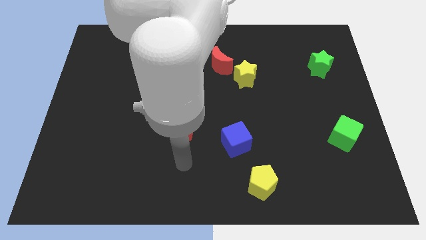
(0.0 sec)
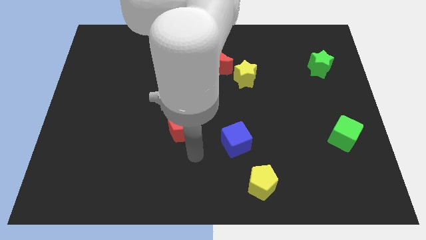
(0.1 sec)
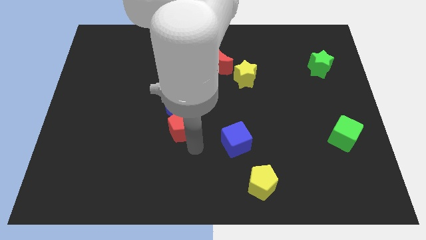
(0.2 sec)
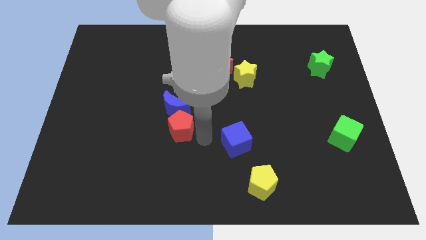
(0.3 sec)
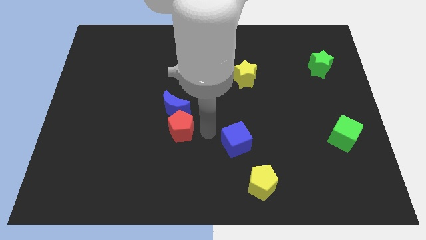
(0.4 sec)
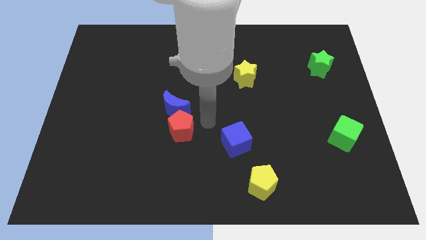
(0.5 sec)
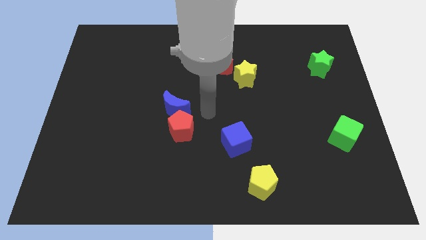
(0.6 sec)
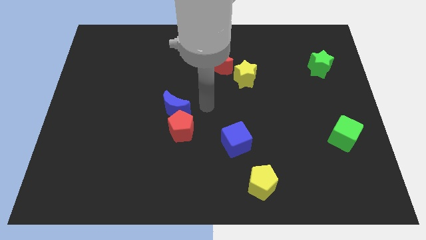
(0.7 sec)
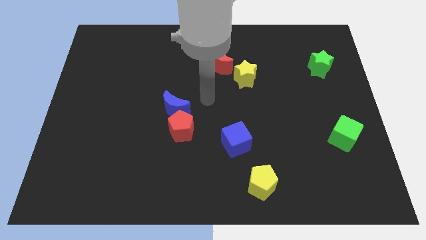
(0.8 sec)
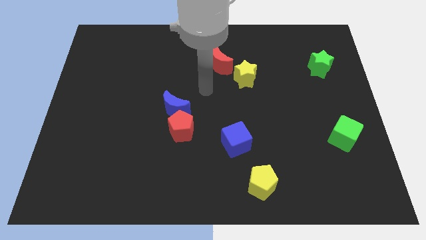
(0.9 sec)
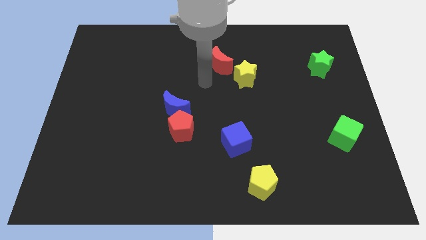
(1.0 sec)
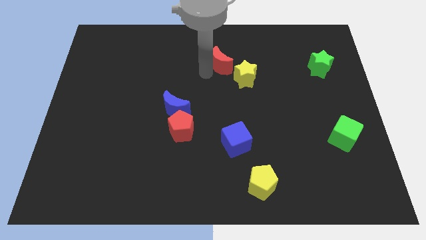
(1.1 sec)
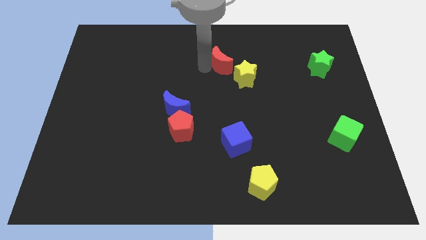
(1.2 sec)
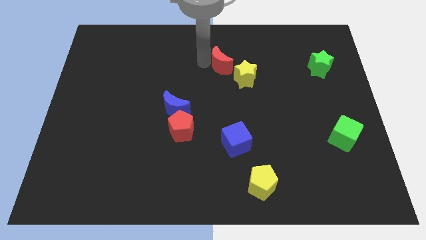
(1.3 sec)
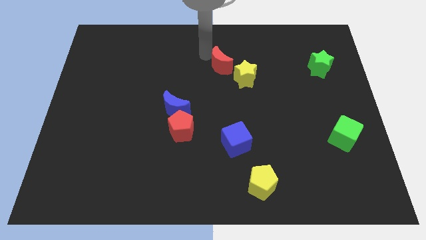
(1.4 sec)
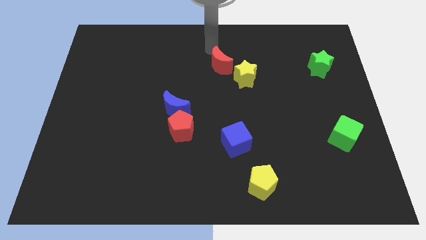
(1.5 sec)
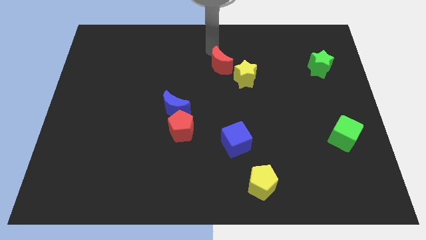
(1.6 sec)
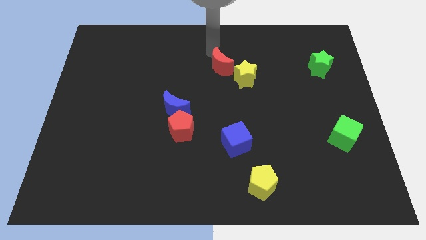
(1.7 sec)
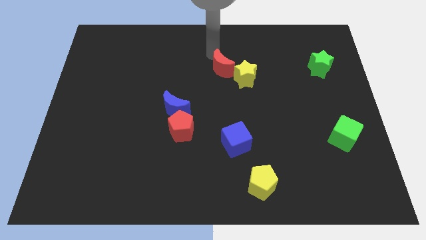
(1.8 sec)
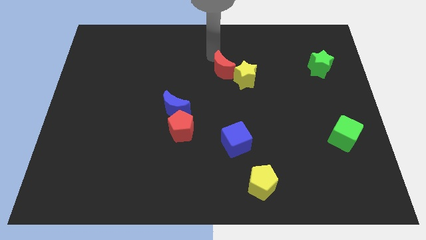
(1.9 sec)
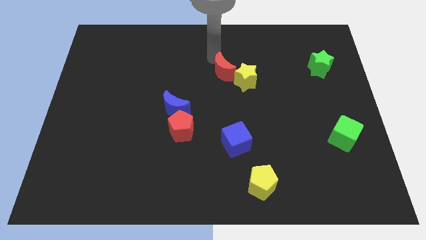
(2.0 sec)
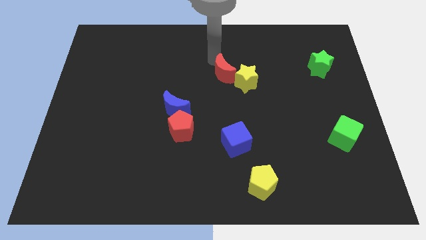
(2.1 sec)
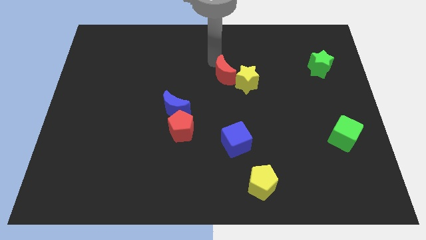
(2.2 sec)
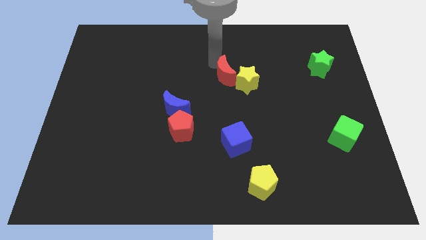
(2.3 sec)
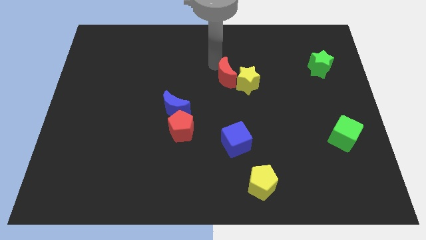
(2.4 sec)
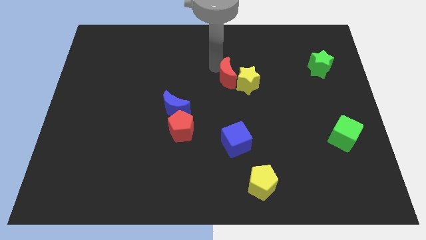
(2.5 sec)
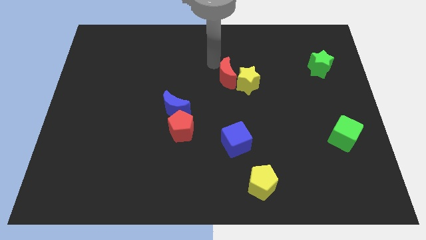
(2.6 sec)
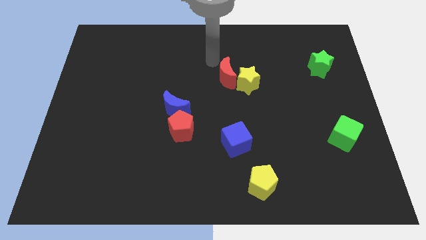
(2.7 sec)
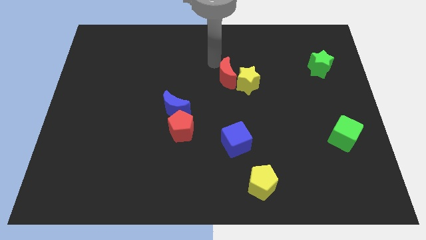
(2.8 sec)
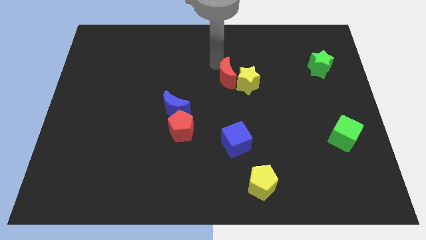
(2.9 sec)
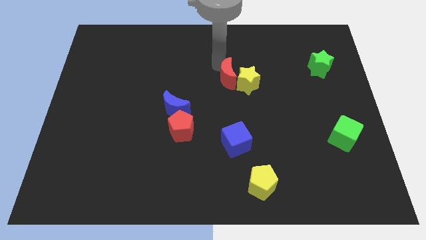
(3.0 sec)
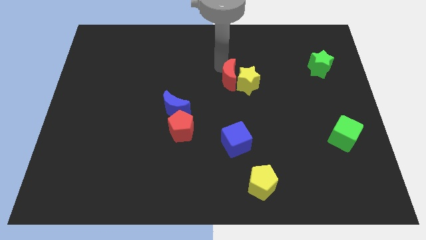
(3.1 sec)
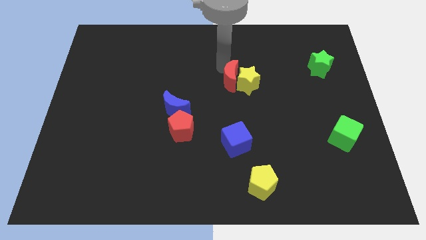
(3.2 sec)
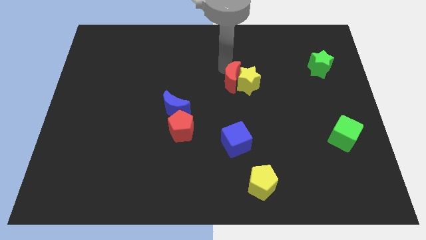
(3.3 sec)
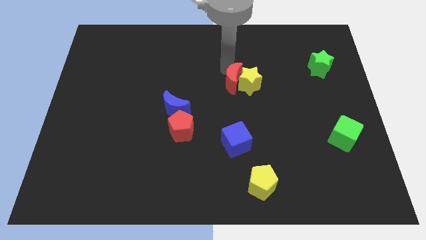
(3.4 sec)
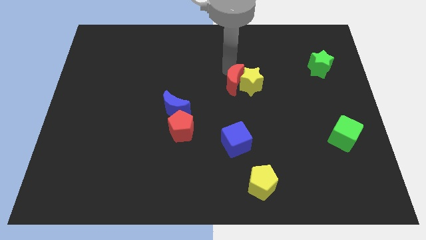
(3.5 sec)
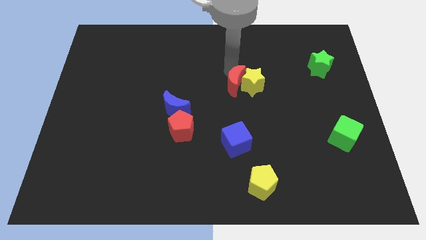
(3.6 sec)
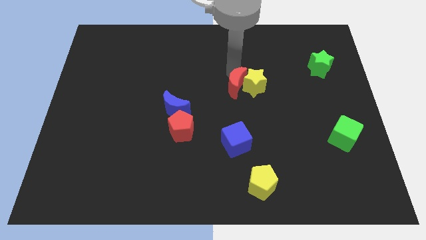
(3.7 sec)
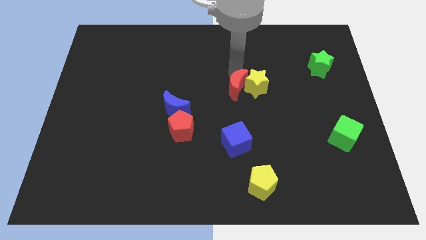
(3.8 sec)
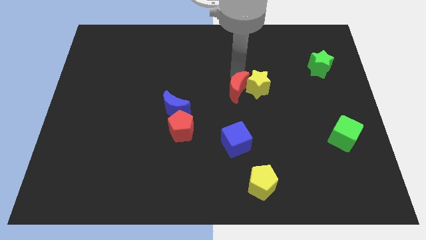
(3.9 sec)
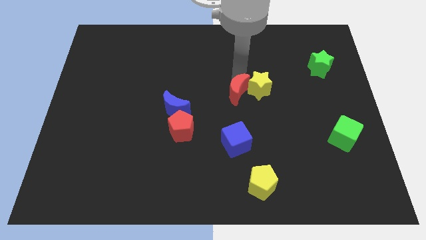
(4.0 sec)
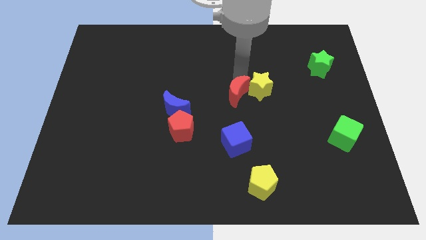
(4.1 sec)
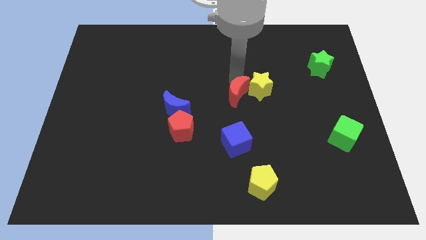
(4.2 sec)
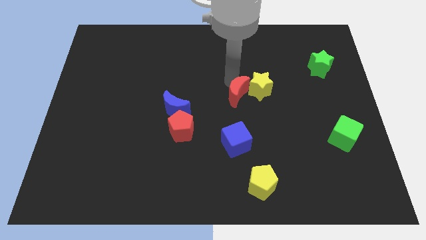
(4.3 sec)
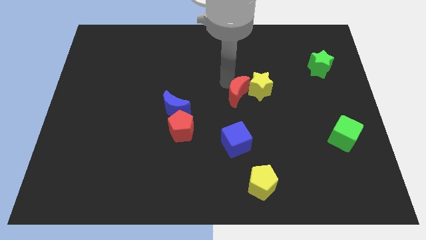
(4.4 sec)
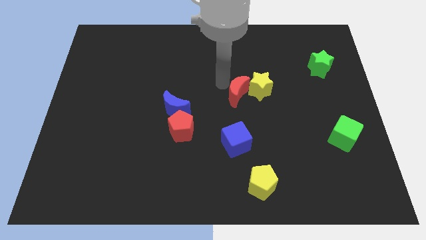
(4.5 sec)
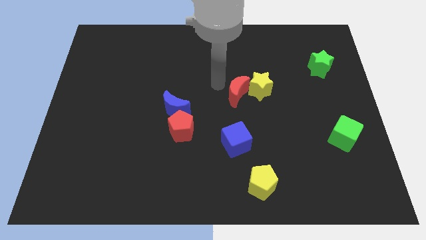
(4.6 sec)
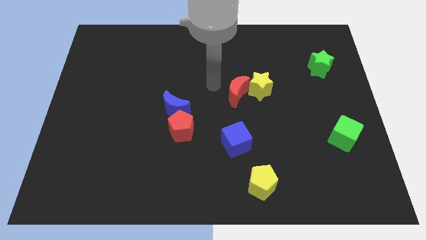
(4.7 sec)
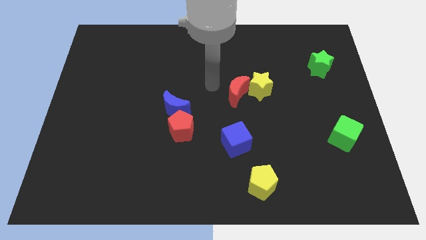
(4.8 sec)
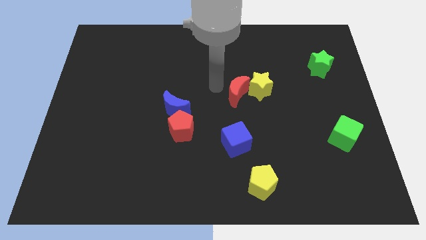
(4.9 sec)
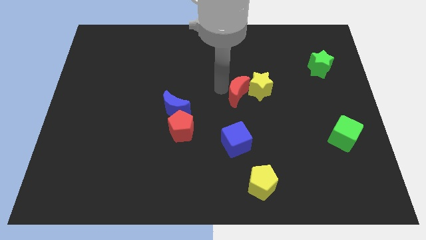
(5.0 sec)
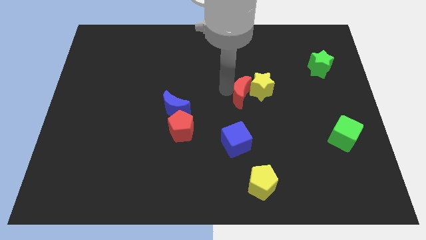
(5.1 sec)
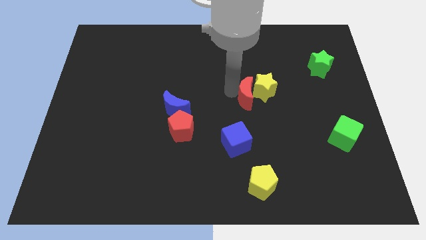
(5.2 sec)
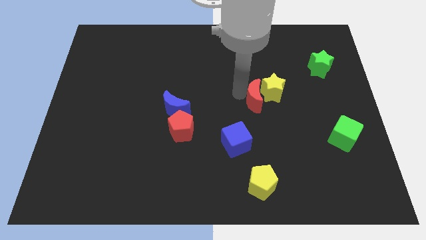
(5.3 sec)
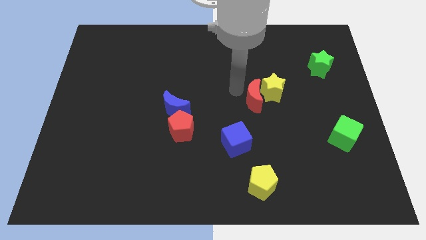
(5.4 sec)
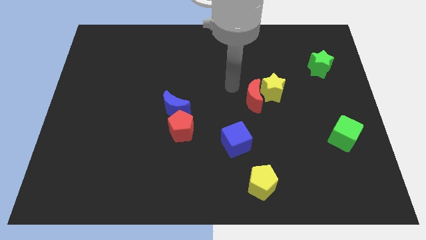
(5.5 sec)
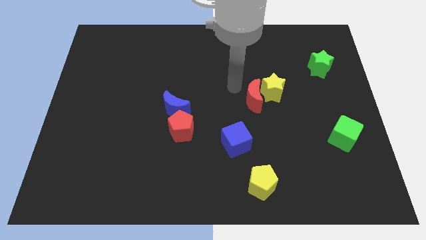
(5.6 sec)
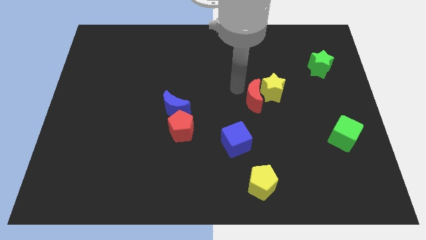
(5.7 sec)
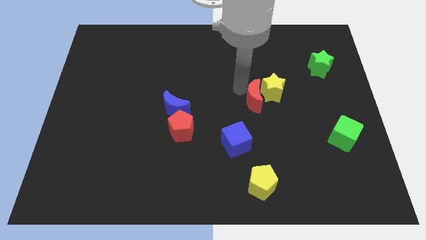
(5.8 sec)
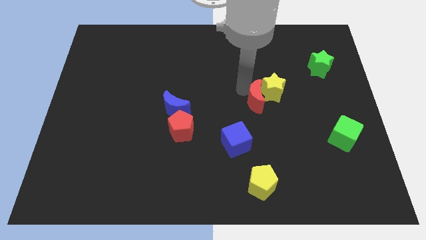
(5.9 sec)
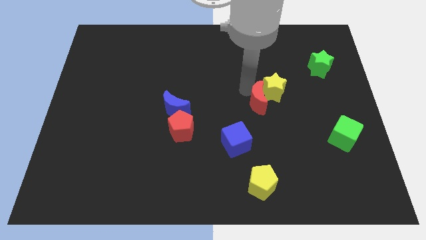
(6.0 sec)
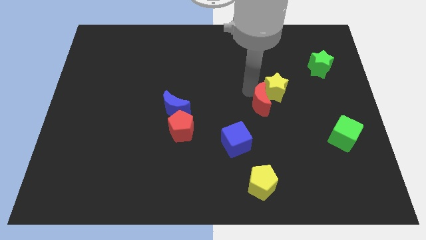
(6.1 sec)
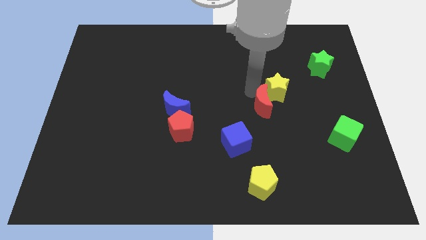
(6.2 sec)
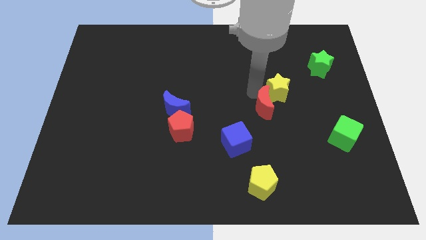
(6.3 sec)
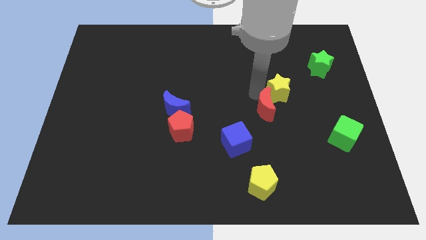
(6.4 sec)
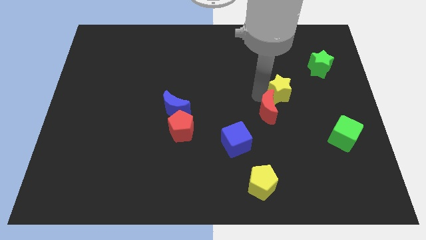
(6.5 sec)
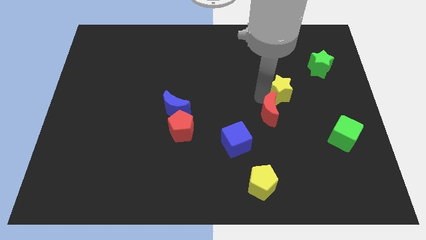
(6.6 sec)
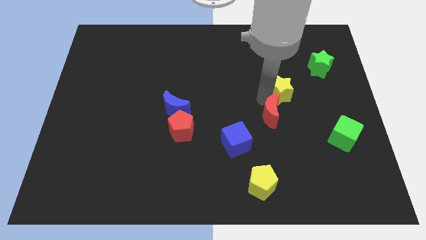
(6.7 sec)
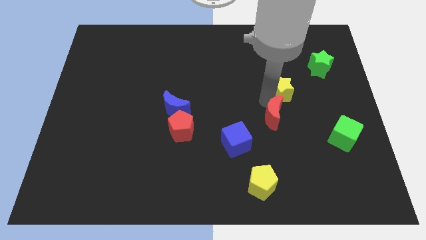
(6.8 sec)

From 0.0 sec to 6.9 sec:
slide the red moon down and right diagonally

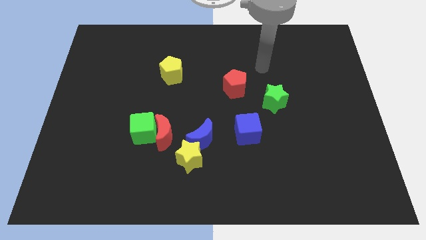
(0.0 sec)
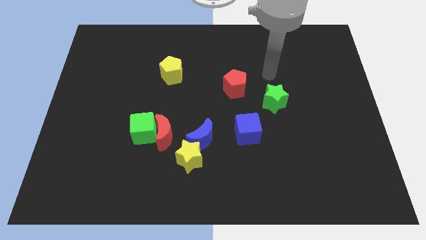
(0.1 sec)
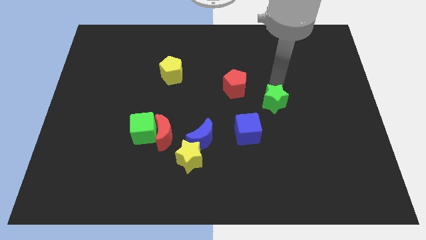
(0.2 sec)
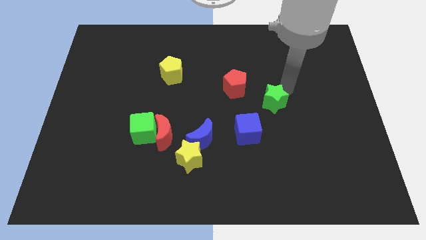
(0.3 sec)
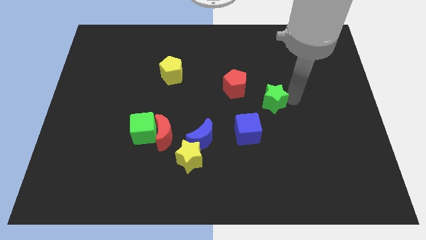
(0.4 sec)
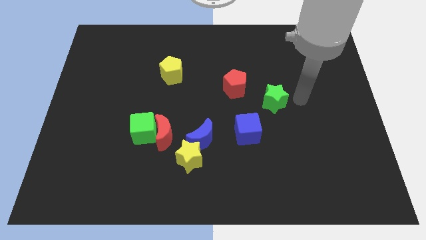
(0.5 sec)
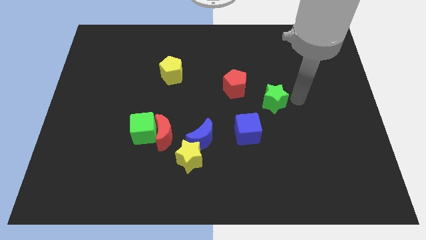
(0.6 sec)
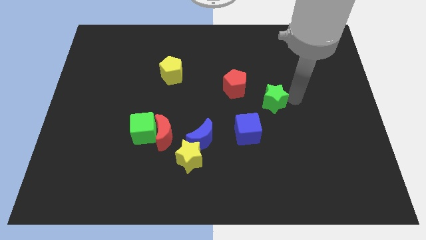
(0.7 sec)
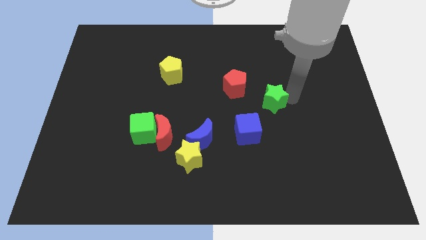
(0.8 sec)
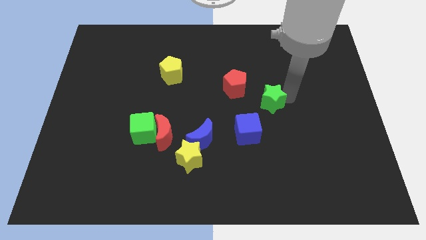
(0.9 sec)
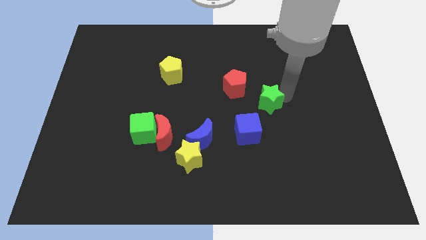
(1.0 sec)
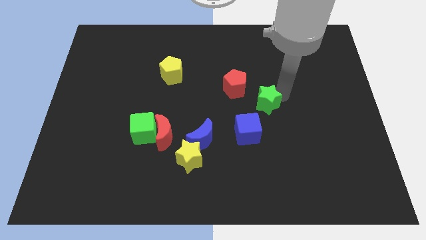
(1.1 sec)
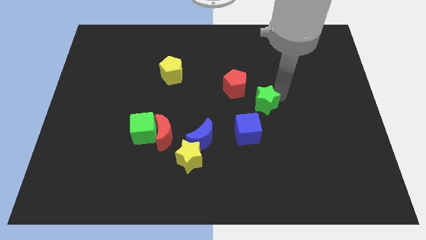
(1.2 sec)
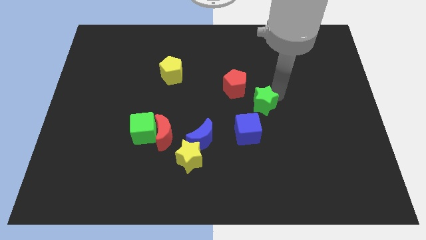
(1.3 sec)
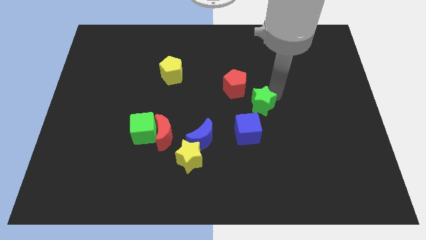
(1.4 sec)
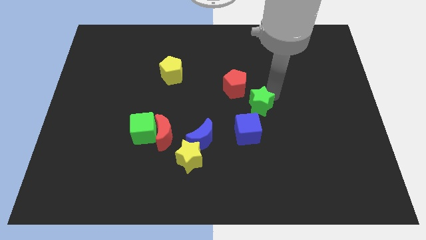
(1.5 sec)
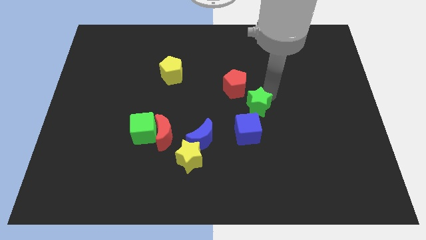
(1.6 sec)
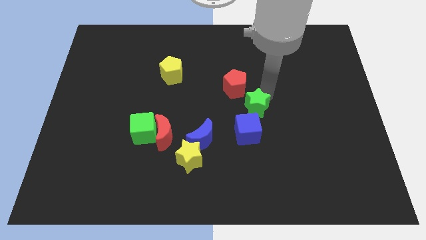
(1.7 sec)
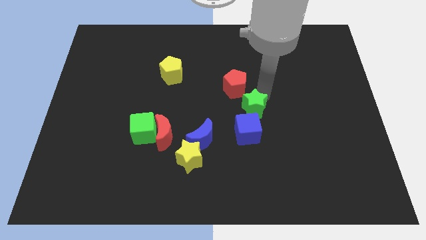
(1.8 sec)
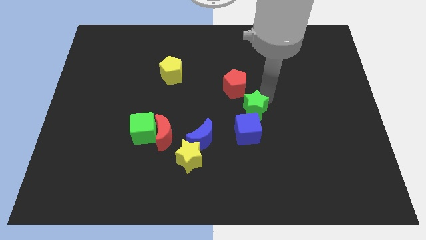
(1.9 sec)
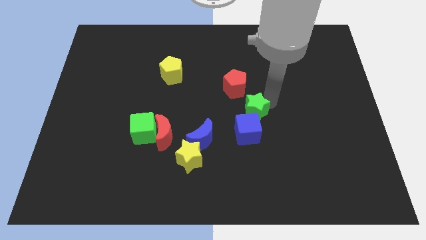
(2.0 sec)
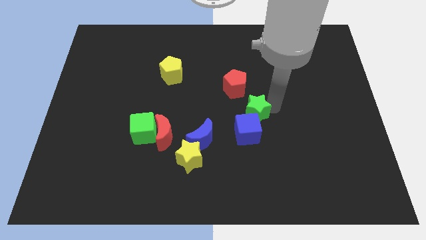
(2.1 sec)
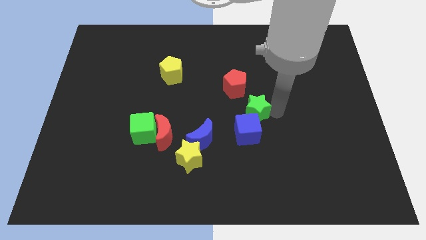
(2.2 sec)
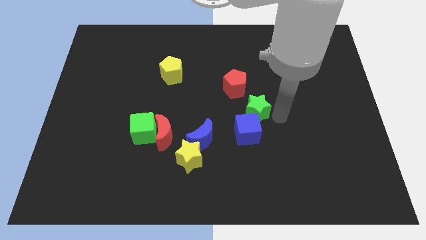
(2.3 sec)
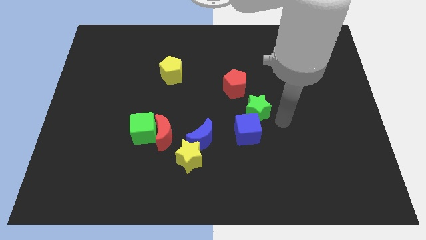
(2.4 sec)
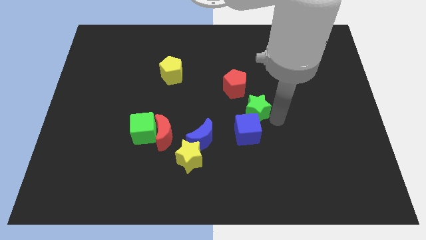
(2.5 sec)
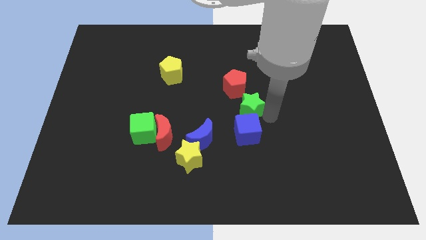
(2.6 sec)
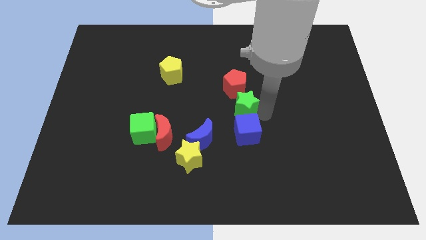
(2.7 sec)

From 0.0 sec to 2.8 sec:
slide the green star to the left somewhat
